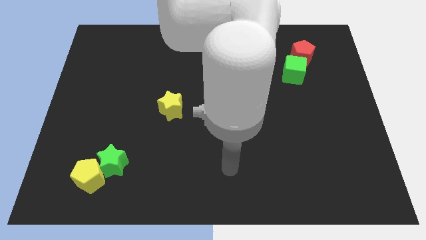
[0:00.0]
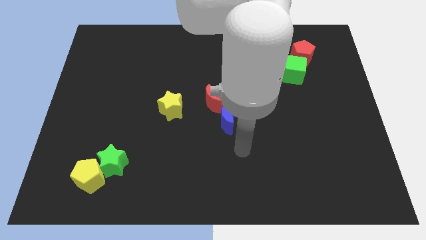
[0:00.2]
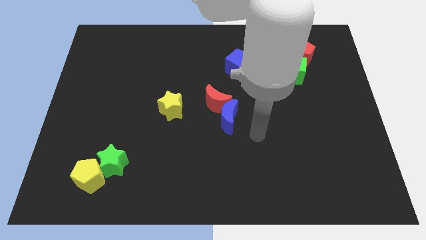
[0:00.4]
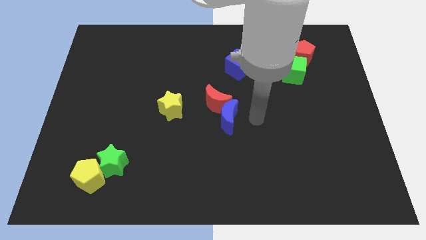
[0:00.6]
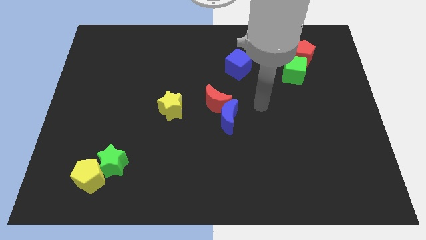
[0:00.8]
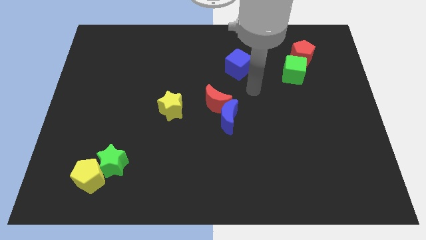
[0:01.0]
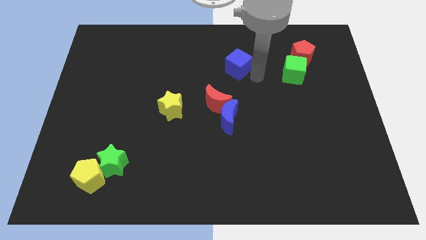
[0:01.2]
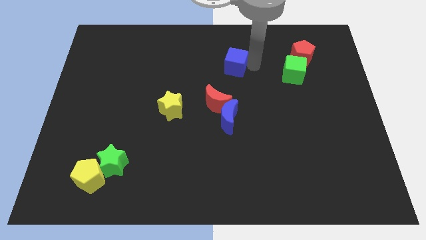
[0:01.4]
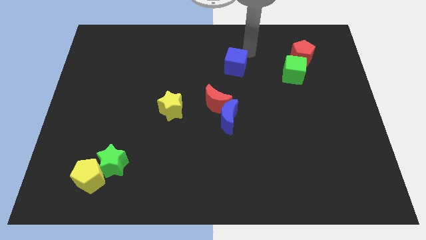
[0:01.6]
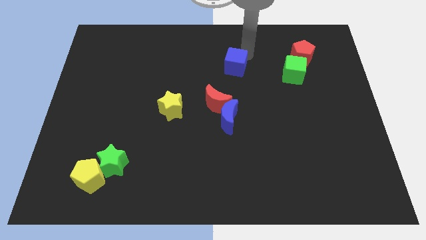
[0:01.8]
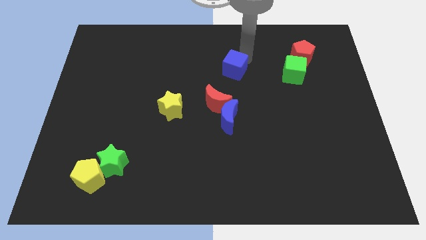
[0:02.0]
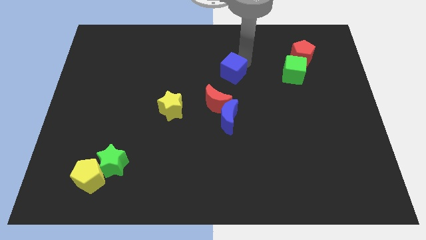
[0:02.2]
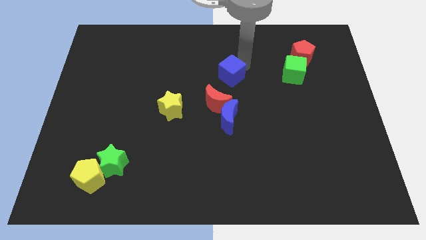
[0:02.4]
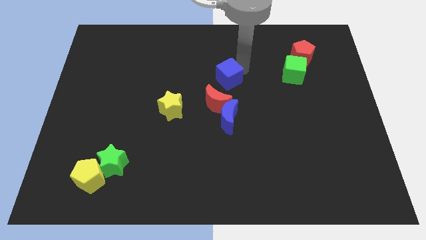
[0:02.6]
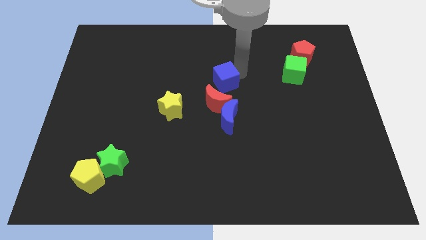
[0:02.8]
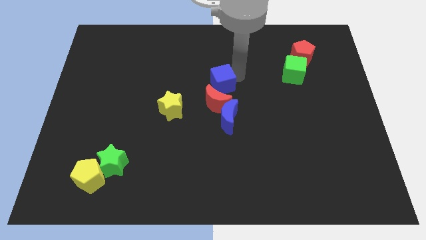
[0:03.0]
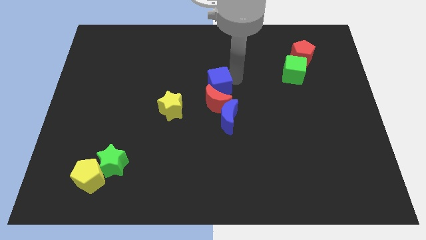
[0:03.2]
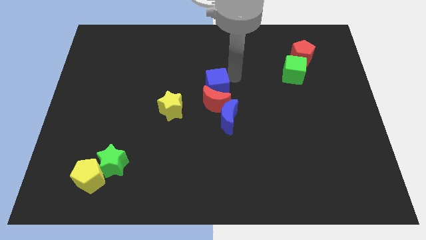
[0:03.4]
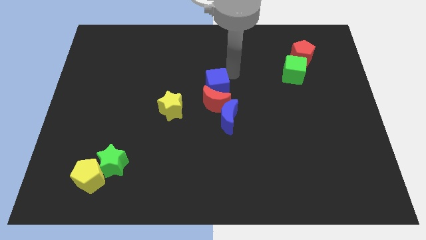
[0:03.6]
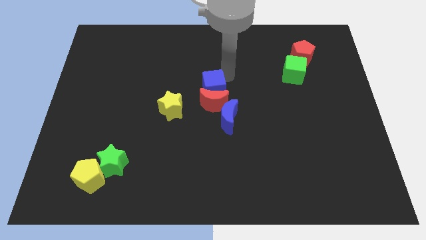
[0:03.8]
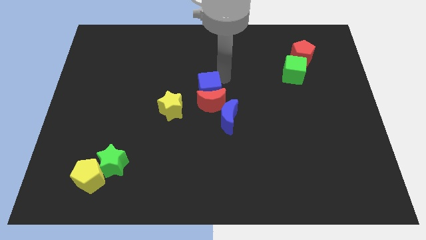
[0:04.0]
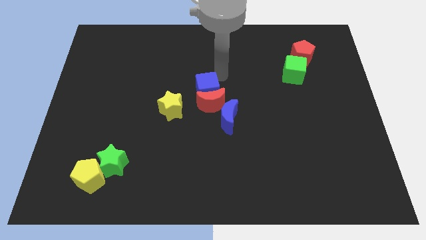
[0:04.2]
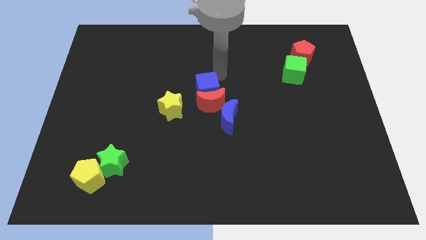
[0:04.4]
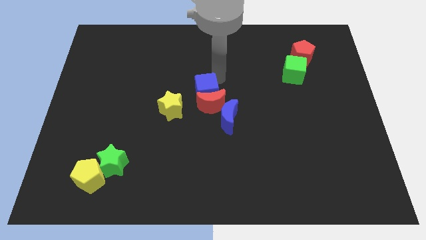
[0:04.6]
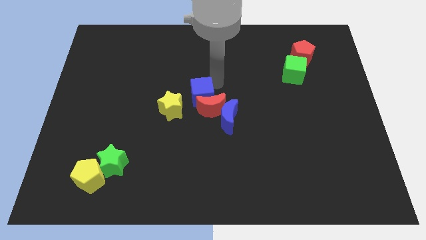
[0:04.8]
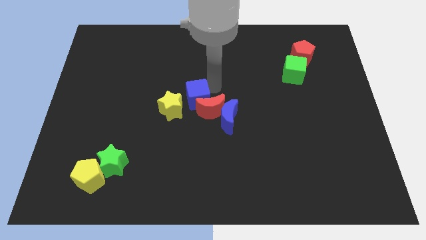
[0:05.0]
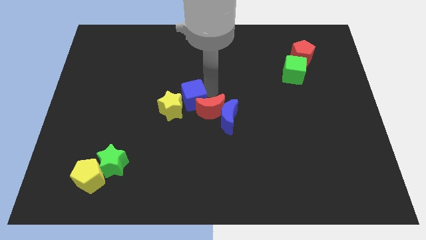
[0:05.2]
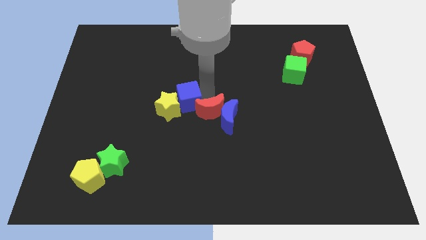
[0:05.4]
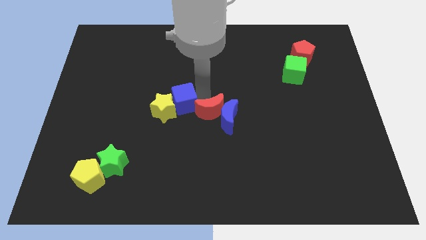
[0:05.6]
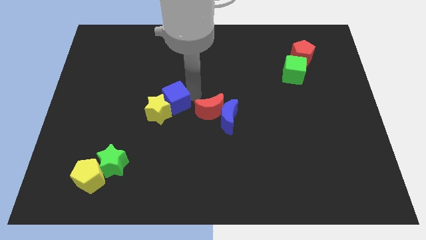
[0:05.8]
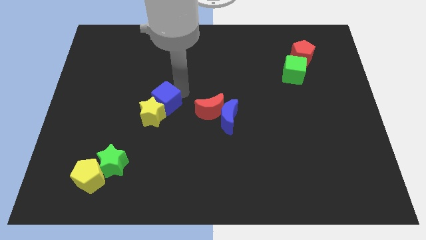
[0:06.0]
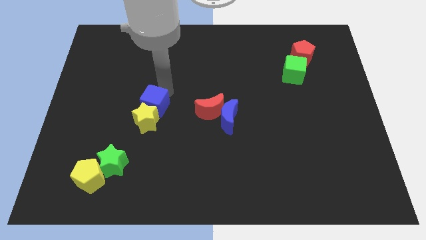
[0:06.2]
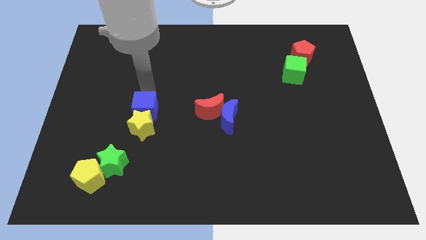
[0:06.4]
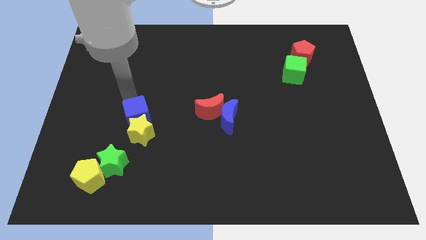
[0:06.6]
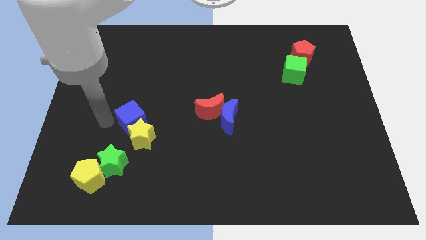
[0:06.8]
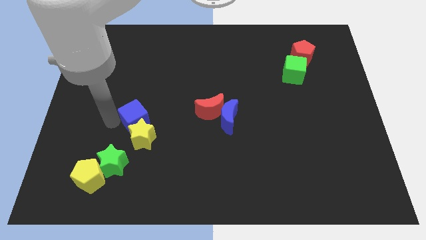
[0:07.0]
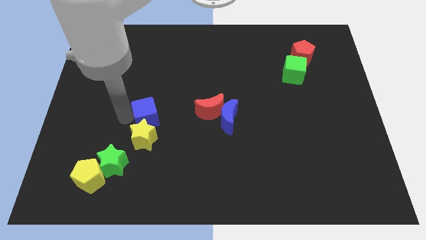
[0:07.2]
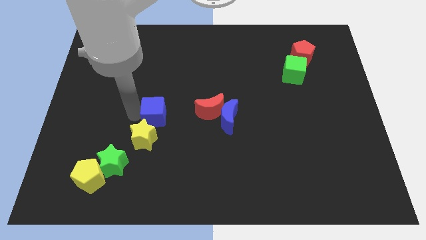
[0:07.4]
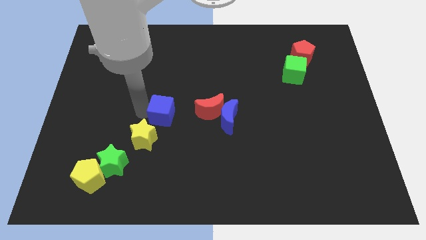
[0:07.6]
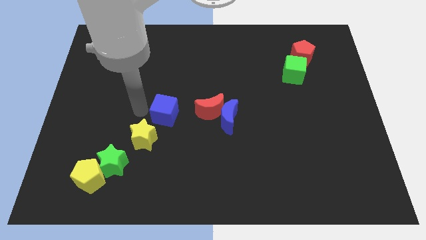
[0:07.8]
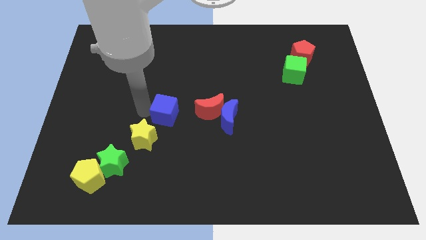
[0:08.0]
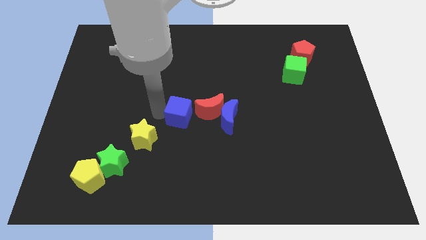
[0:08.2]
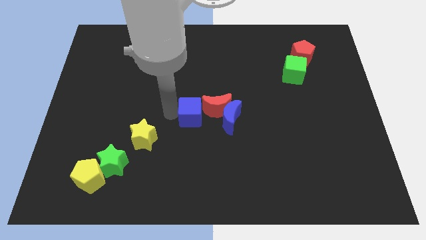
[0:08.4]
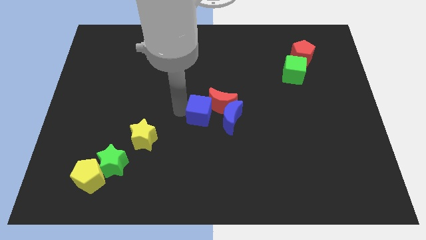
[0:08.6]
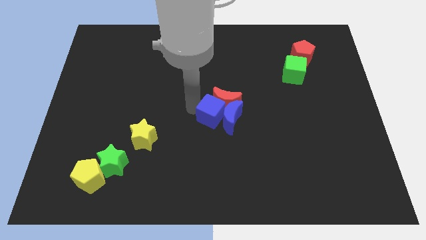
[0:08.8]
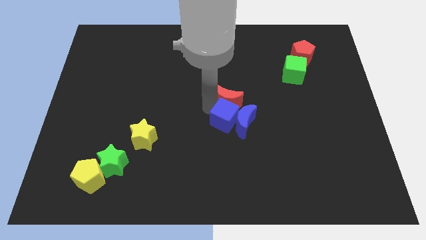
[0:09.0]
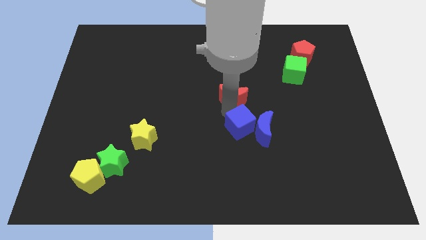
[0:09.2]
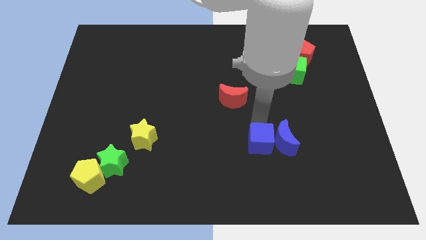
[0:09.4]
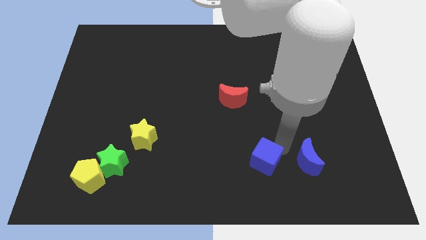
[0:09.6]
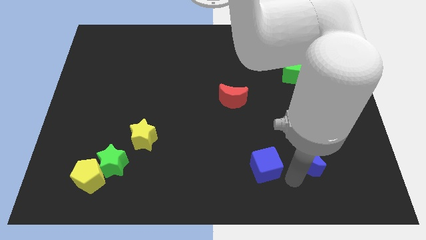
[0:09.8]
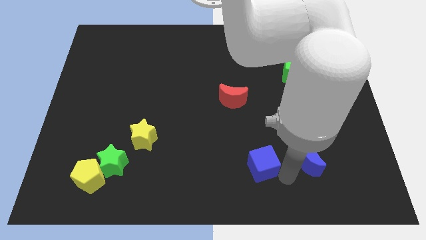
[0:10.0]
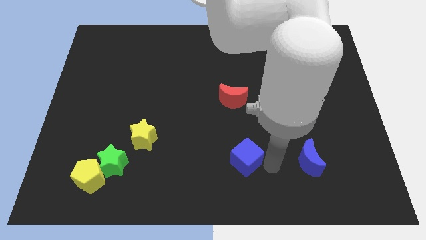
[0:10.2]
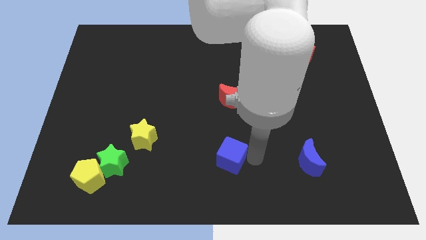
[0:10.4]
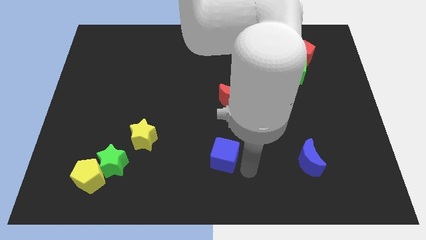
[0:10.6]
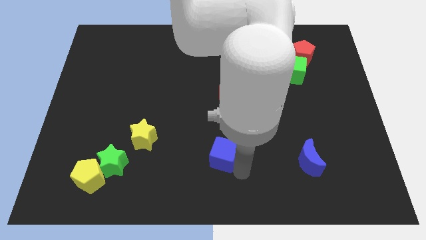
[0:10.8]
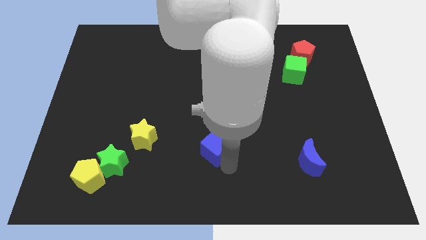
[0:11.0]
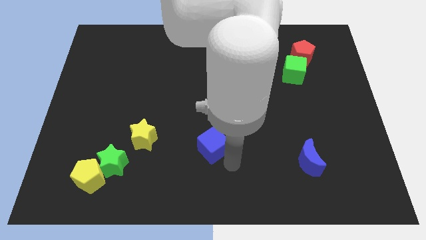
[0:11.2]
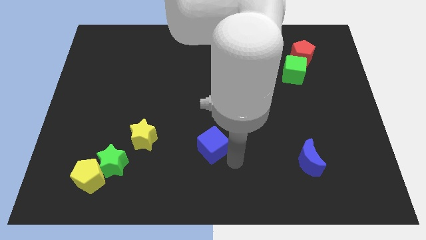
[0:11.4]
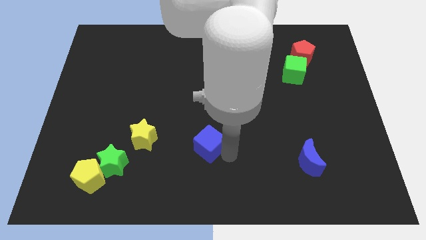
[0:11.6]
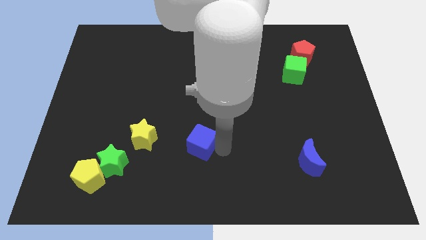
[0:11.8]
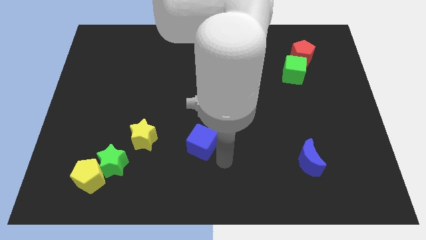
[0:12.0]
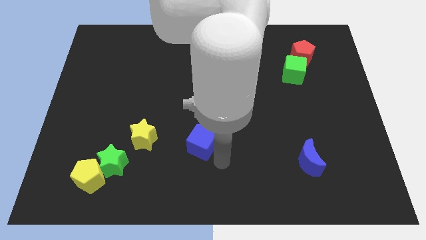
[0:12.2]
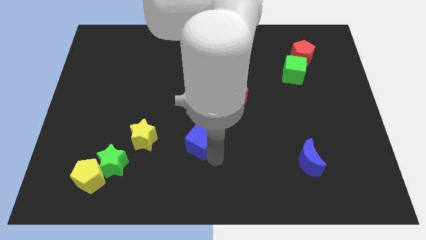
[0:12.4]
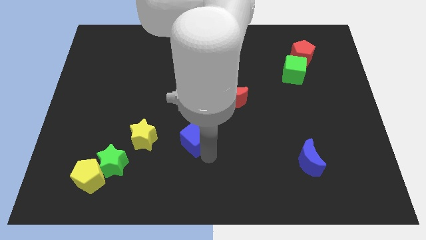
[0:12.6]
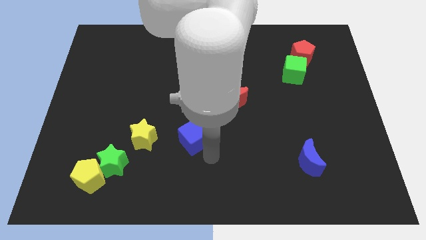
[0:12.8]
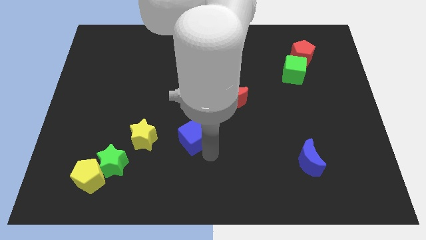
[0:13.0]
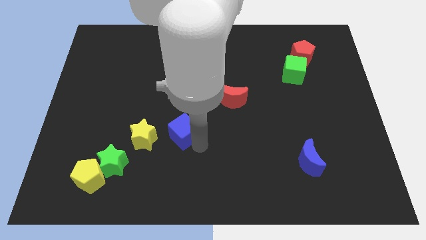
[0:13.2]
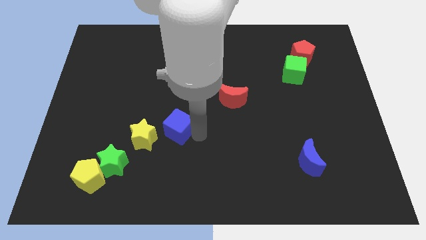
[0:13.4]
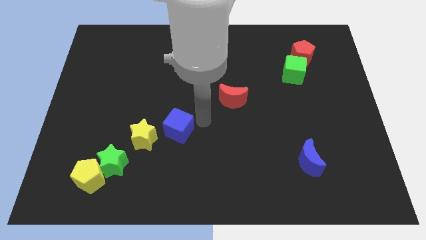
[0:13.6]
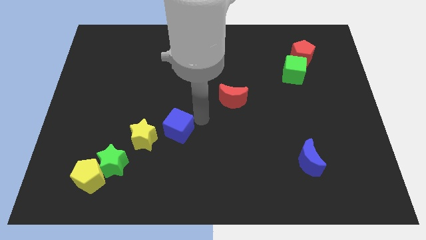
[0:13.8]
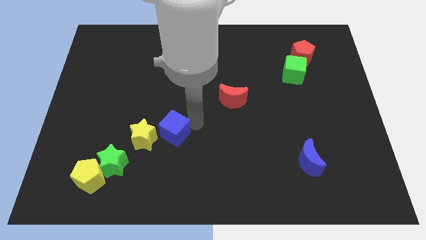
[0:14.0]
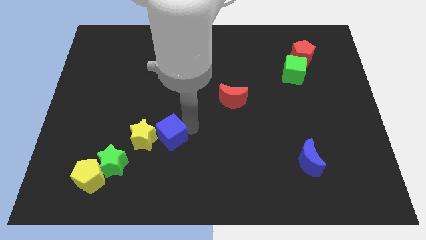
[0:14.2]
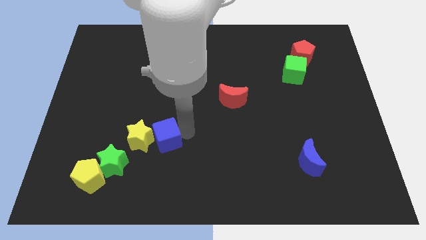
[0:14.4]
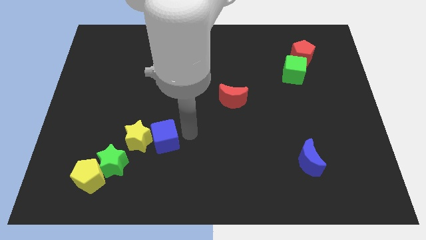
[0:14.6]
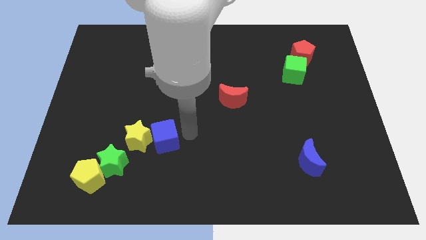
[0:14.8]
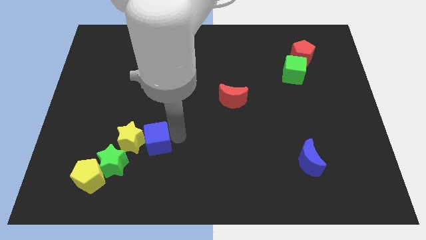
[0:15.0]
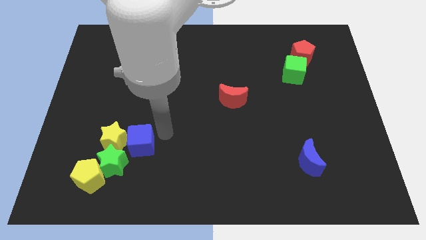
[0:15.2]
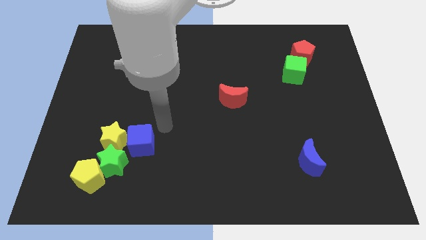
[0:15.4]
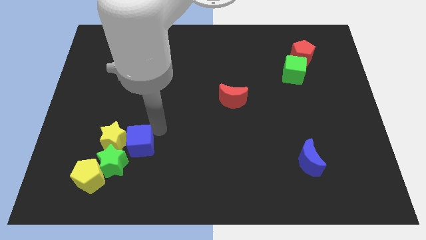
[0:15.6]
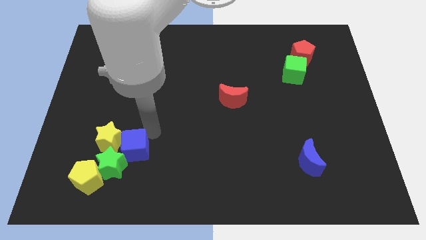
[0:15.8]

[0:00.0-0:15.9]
put the blue cube close to the green star
